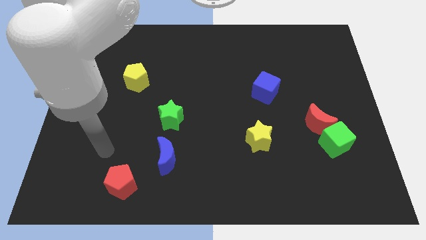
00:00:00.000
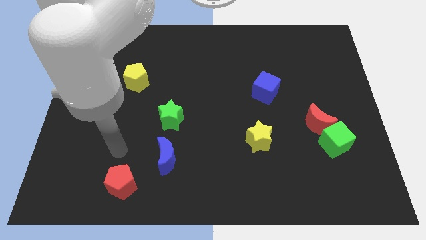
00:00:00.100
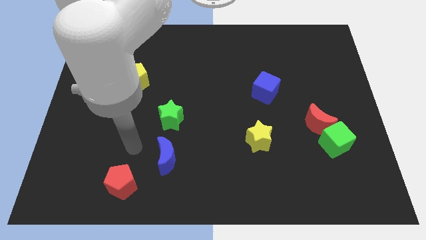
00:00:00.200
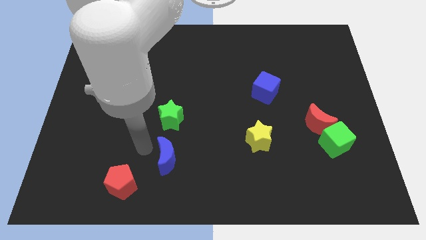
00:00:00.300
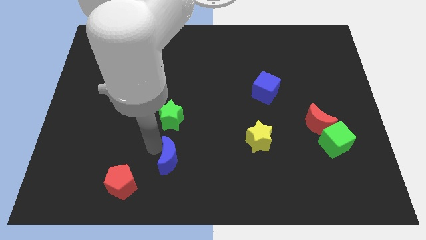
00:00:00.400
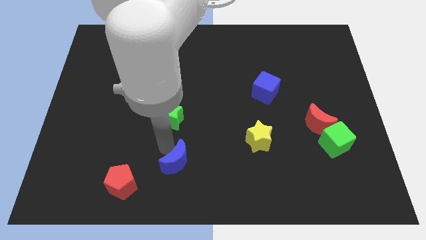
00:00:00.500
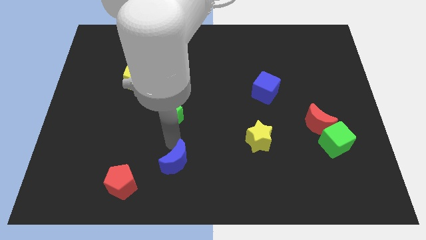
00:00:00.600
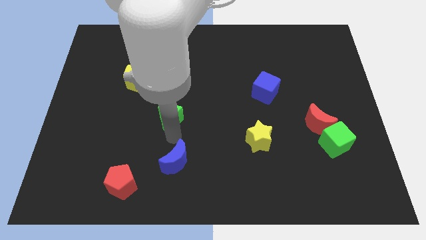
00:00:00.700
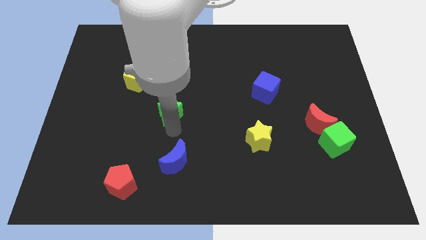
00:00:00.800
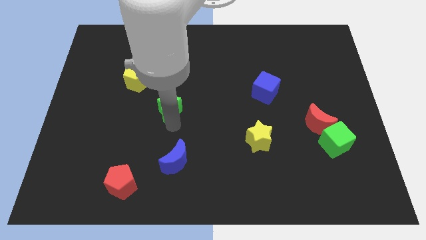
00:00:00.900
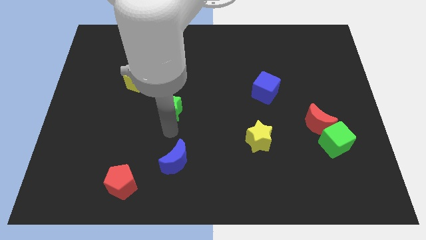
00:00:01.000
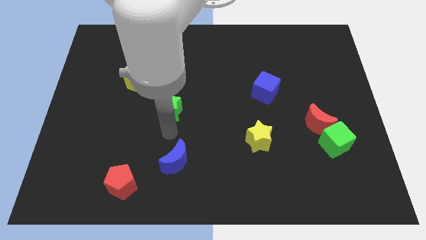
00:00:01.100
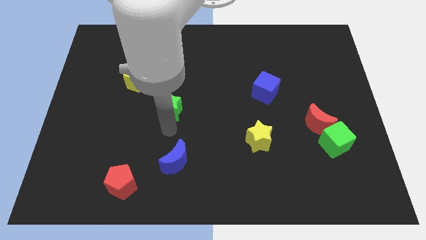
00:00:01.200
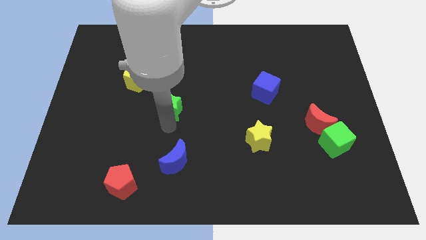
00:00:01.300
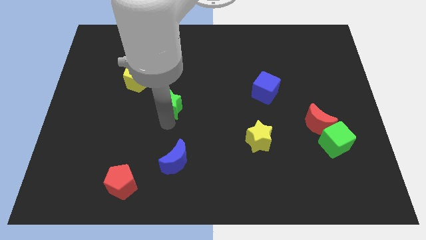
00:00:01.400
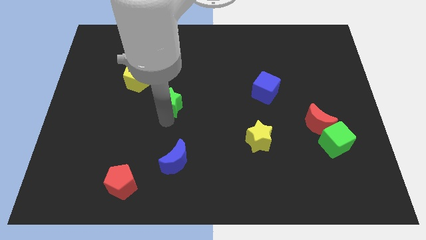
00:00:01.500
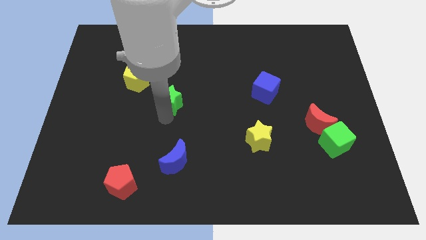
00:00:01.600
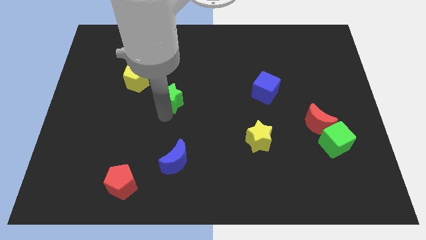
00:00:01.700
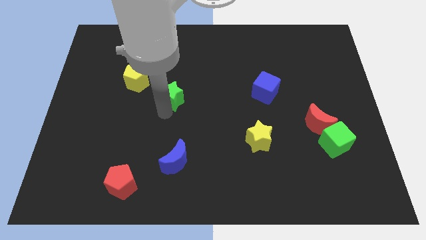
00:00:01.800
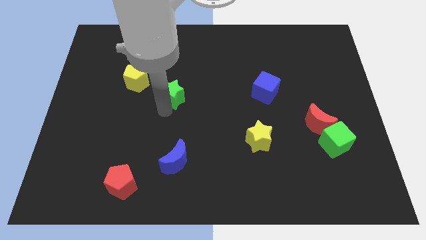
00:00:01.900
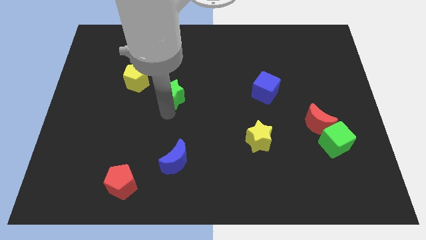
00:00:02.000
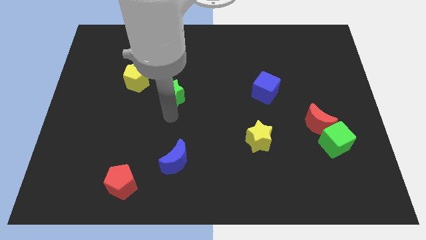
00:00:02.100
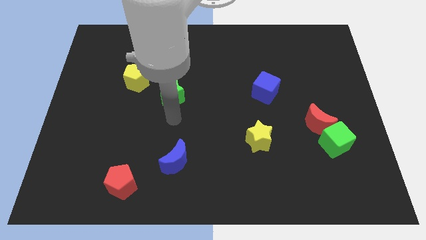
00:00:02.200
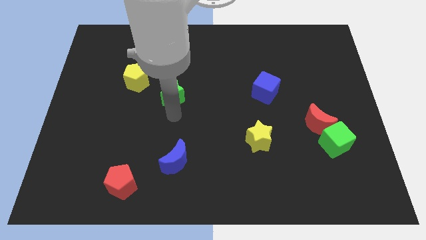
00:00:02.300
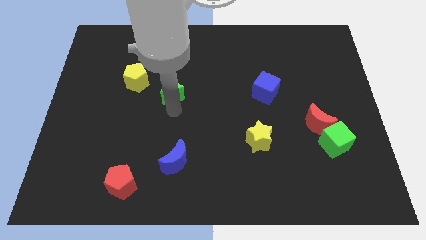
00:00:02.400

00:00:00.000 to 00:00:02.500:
slide the green star a bit up

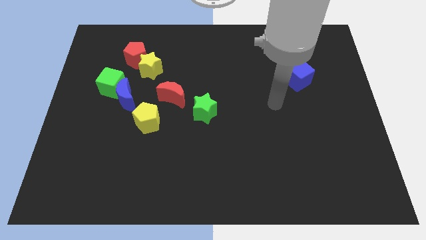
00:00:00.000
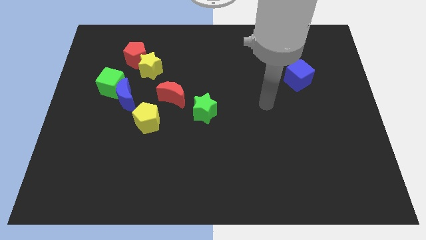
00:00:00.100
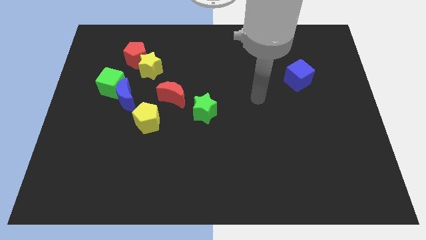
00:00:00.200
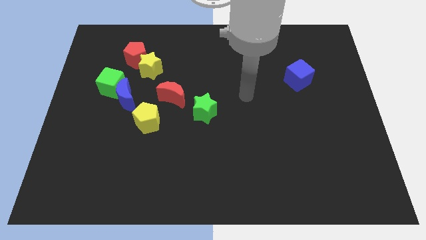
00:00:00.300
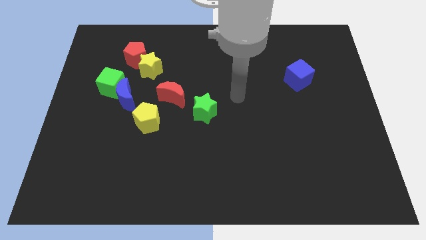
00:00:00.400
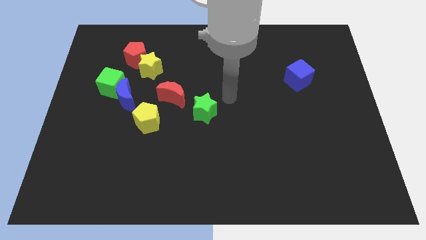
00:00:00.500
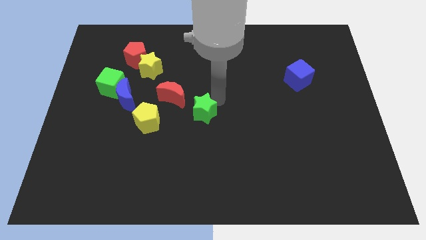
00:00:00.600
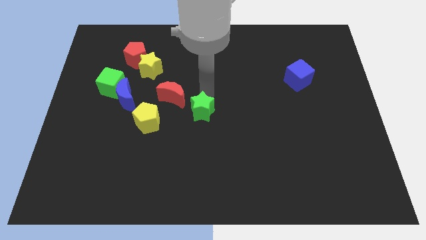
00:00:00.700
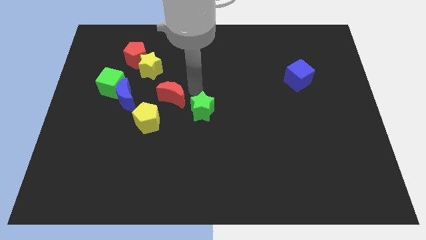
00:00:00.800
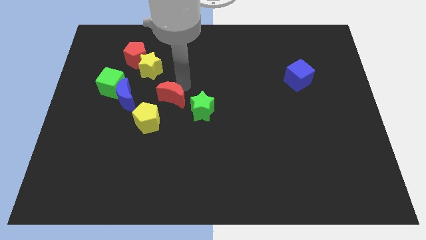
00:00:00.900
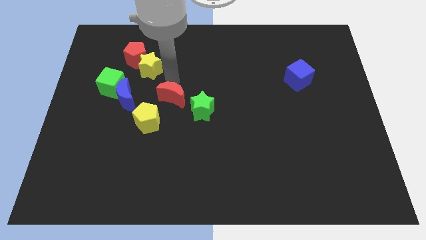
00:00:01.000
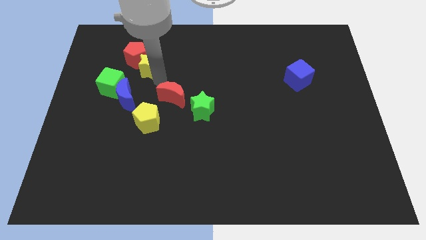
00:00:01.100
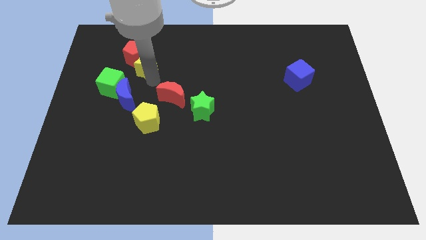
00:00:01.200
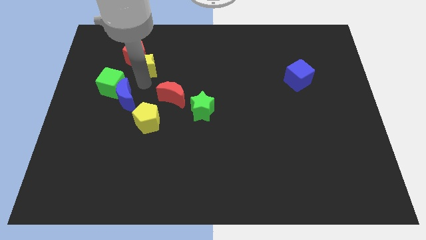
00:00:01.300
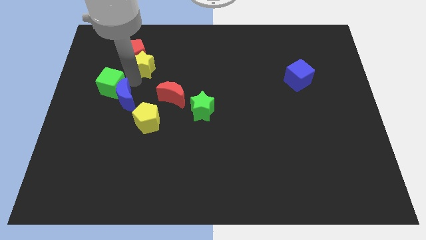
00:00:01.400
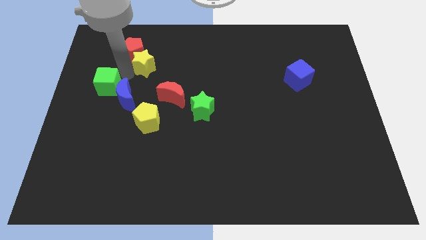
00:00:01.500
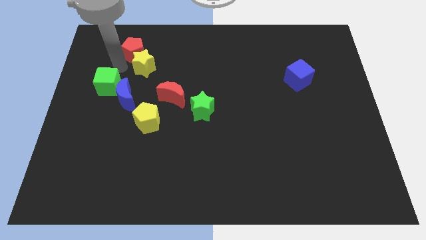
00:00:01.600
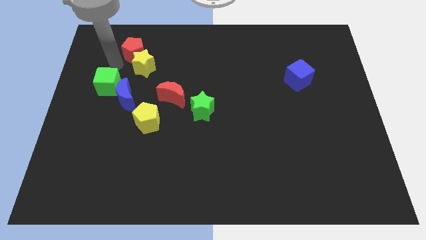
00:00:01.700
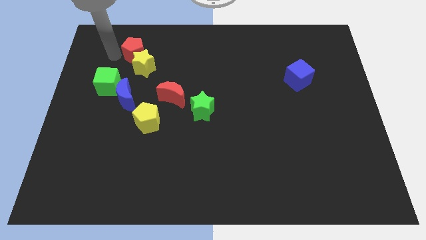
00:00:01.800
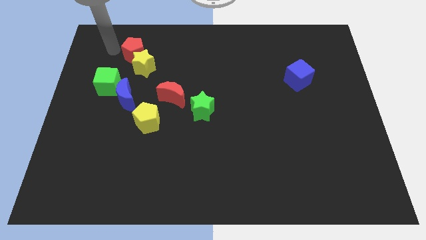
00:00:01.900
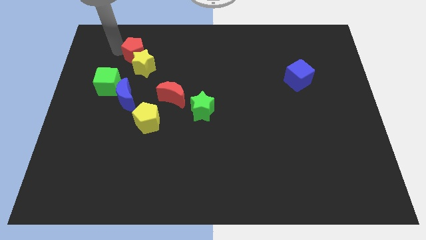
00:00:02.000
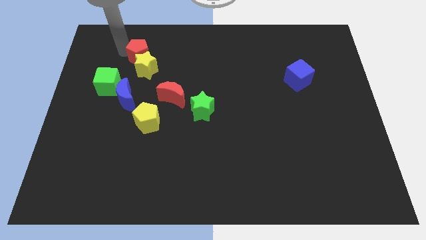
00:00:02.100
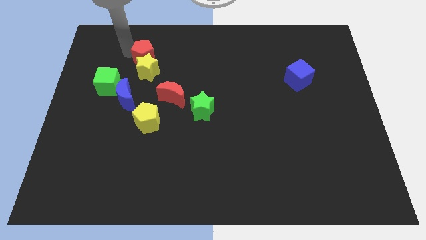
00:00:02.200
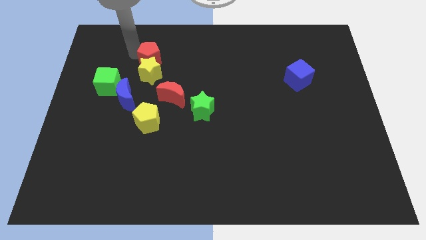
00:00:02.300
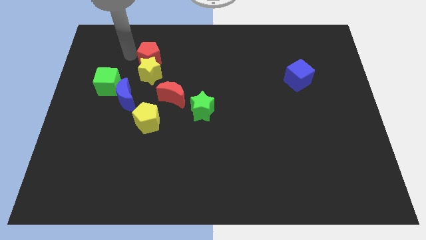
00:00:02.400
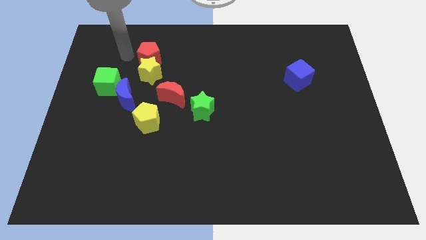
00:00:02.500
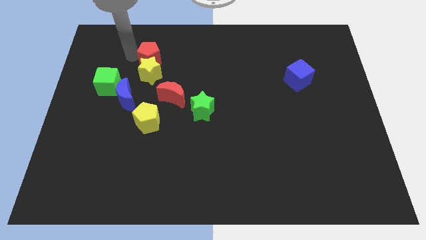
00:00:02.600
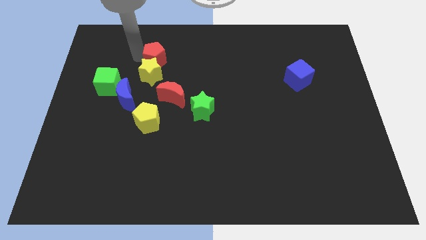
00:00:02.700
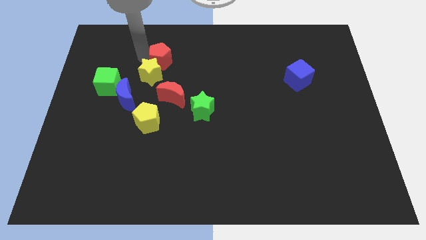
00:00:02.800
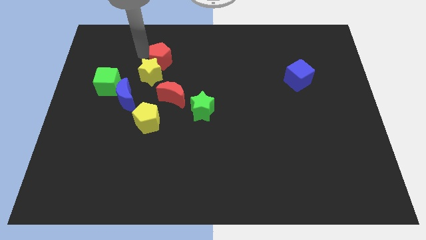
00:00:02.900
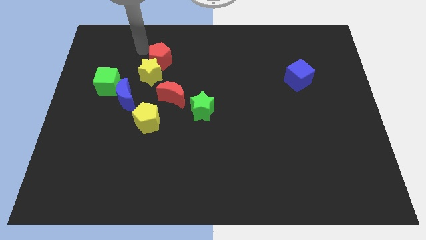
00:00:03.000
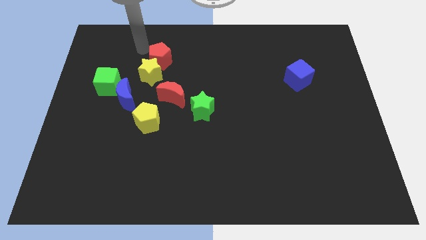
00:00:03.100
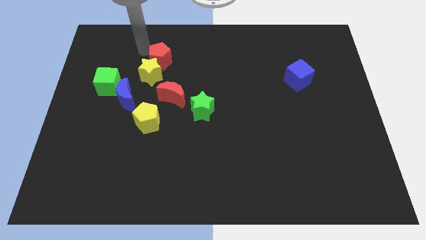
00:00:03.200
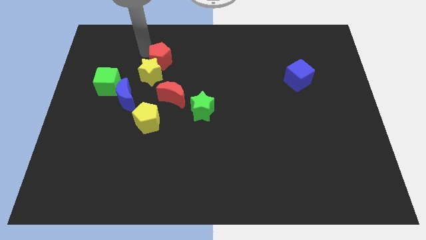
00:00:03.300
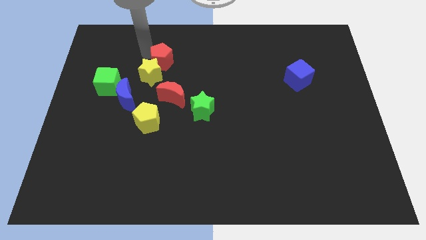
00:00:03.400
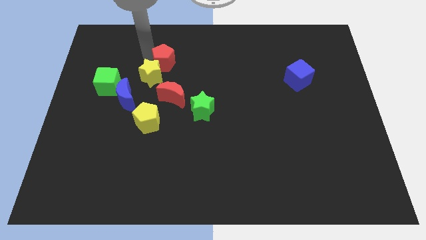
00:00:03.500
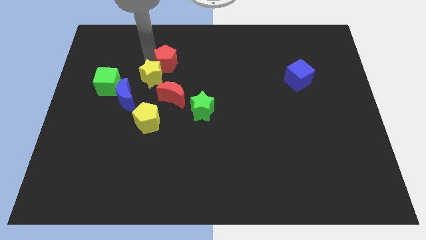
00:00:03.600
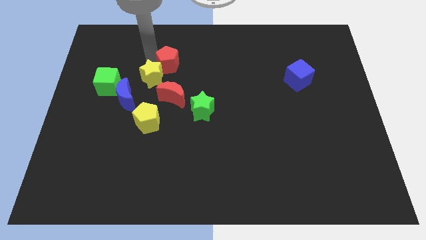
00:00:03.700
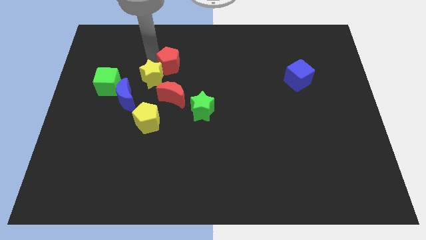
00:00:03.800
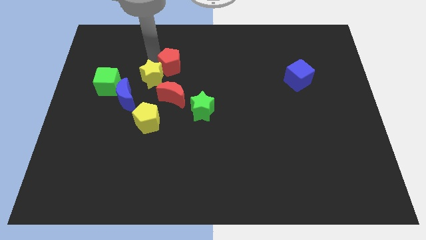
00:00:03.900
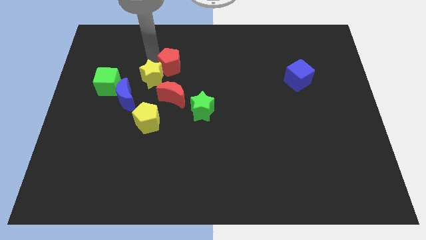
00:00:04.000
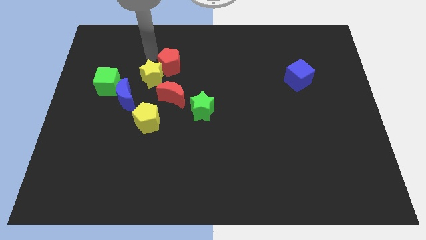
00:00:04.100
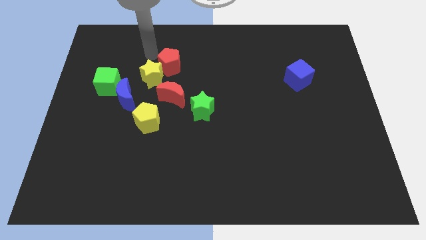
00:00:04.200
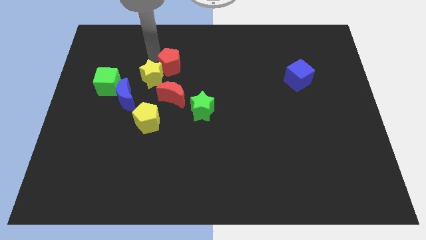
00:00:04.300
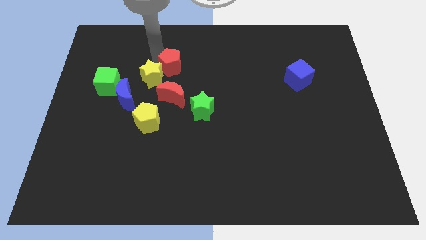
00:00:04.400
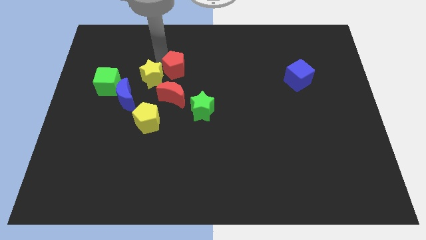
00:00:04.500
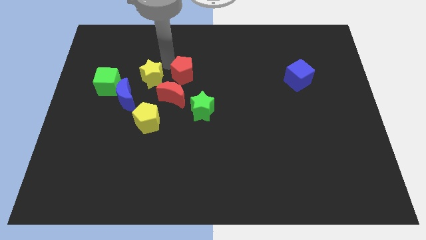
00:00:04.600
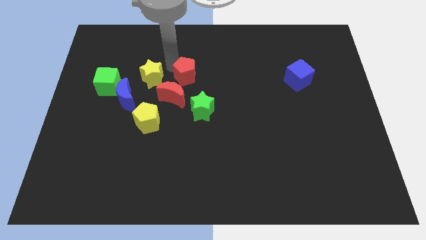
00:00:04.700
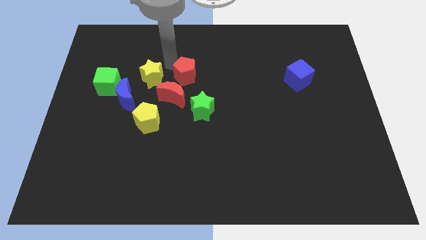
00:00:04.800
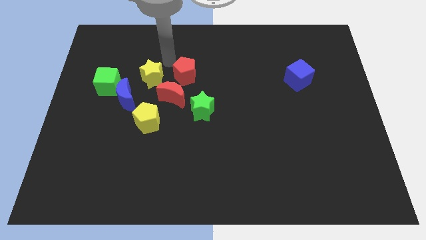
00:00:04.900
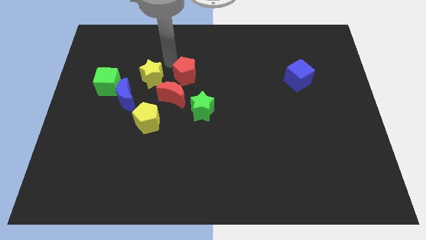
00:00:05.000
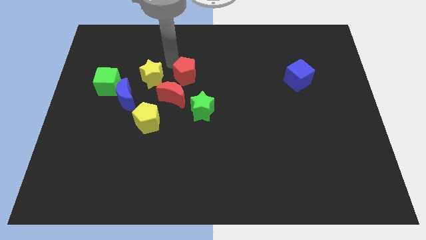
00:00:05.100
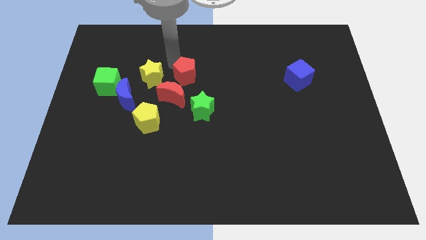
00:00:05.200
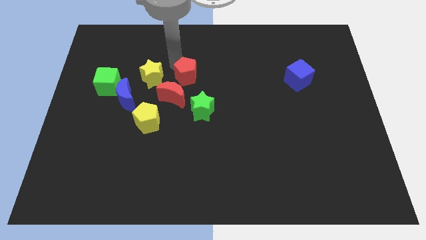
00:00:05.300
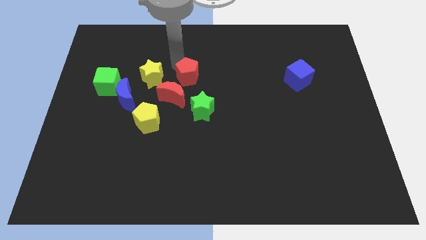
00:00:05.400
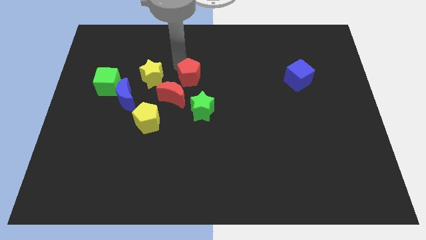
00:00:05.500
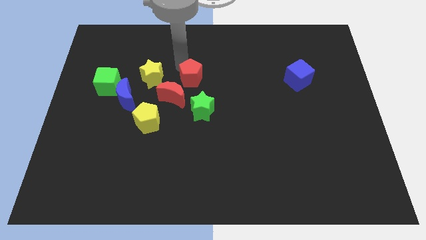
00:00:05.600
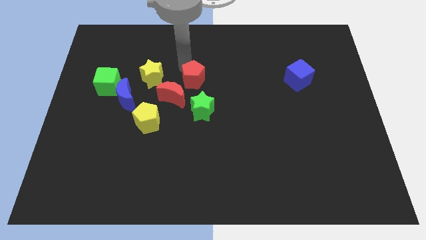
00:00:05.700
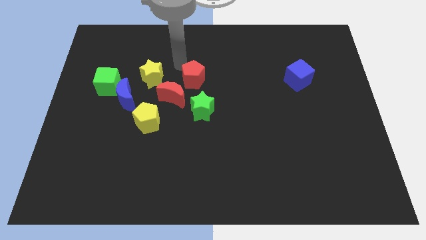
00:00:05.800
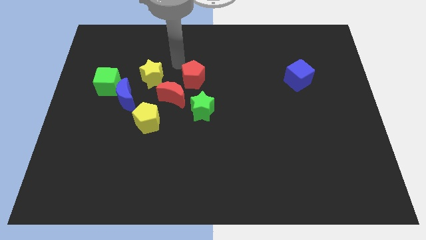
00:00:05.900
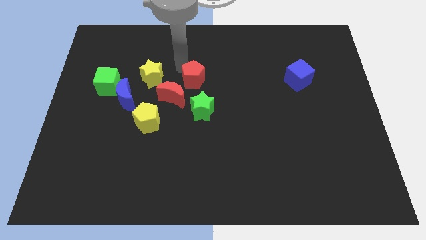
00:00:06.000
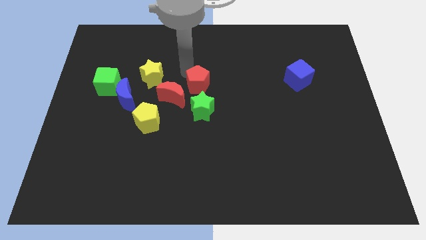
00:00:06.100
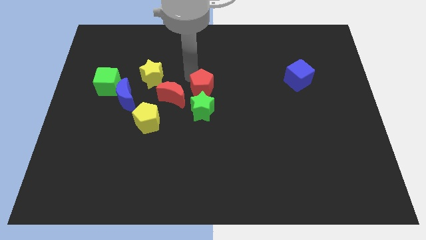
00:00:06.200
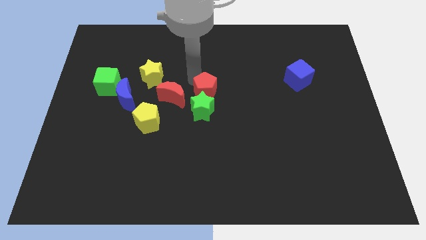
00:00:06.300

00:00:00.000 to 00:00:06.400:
slide the red pentagon diagonally down and right
